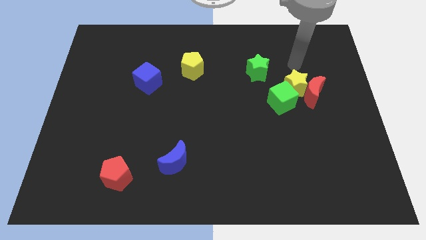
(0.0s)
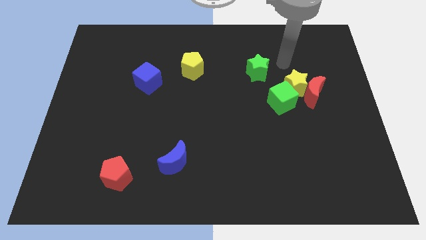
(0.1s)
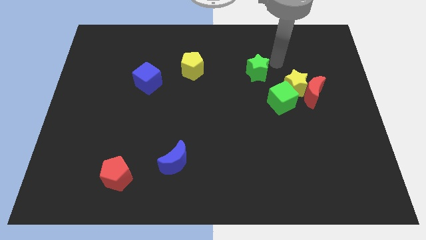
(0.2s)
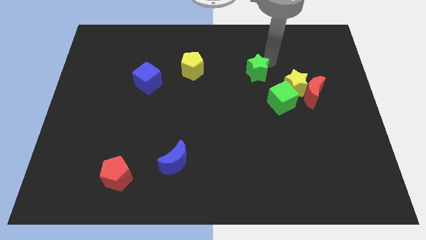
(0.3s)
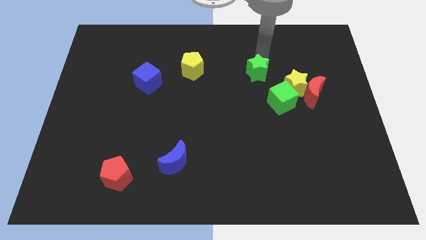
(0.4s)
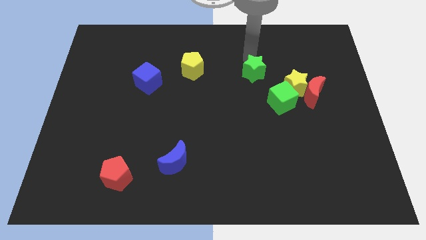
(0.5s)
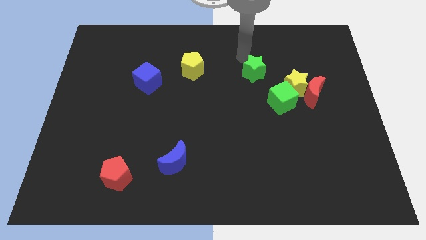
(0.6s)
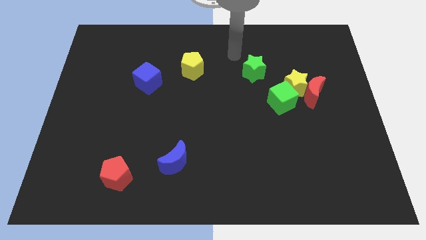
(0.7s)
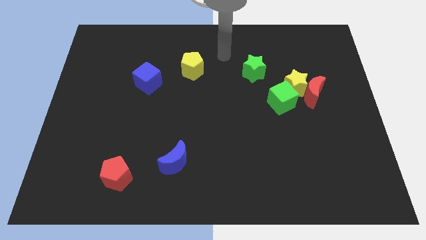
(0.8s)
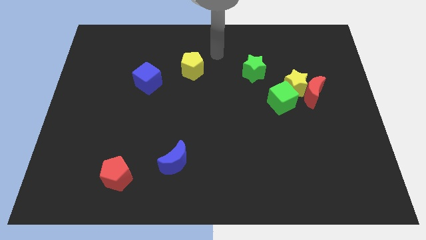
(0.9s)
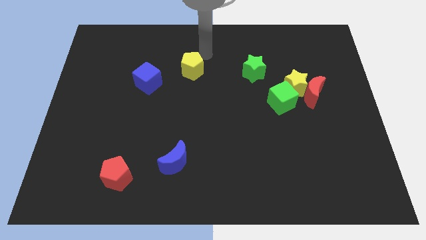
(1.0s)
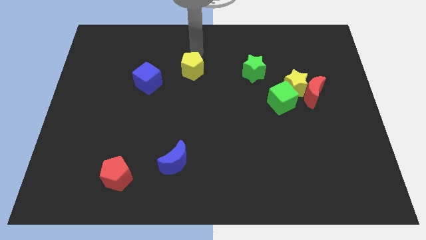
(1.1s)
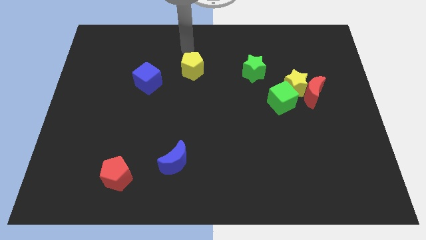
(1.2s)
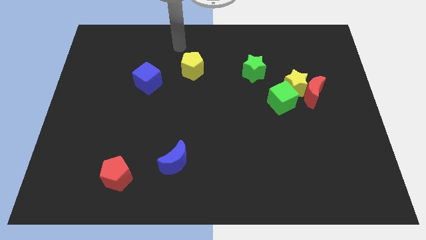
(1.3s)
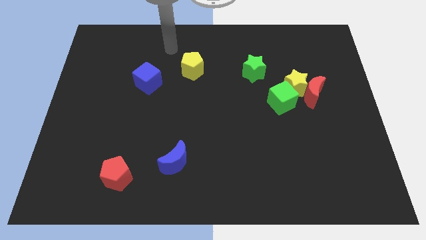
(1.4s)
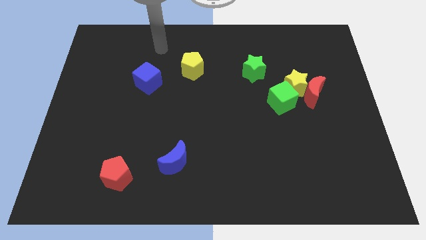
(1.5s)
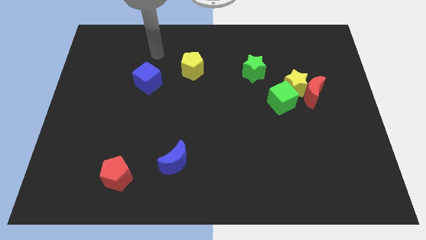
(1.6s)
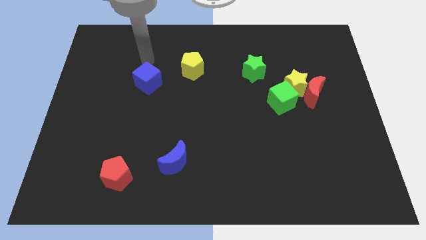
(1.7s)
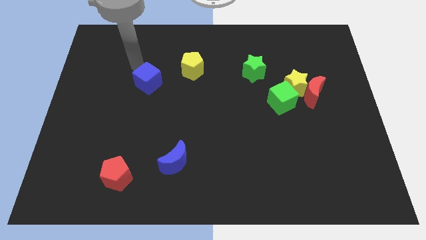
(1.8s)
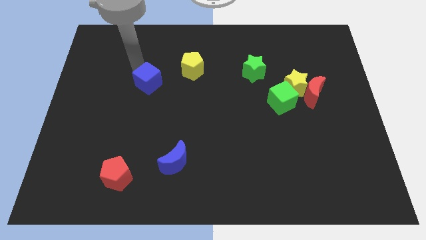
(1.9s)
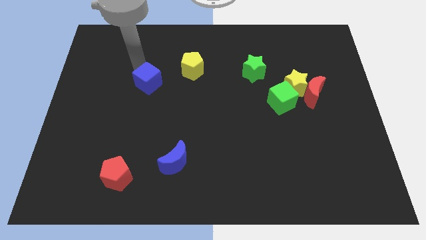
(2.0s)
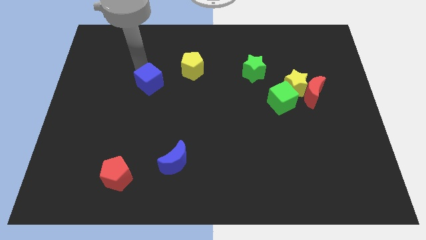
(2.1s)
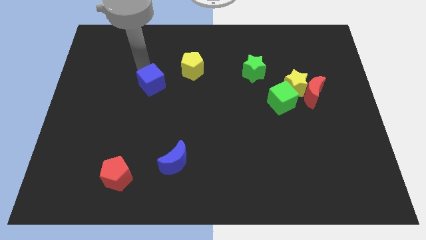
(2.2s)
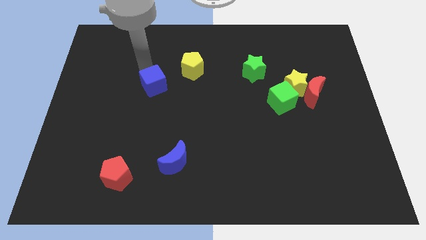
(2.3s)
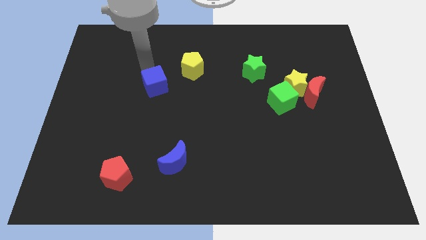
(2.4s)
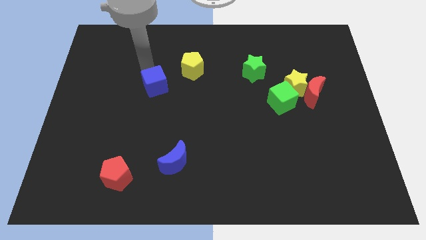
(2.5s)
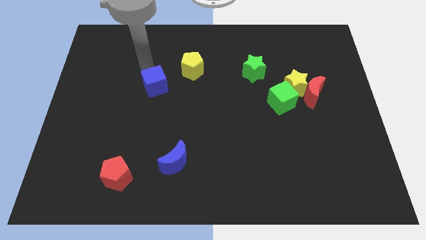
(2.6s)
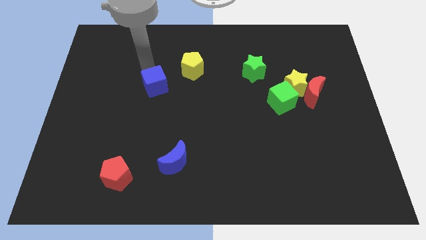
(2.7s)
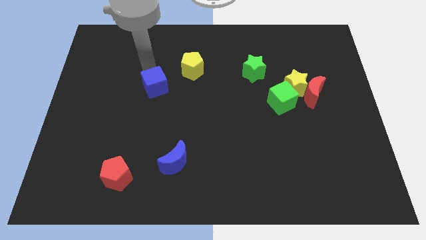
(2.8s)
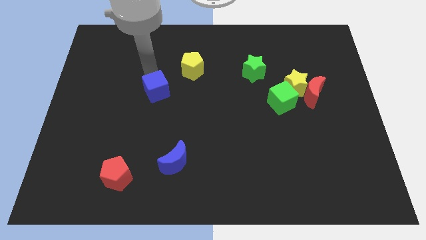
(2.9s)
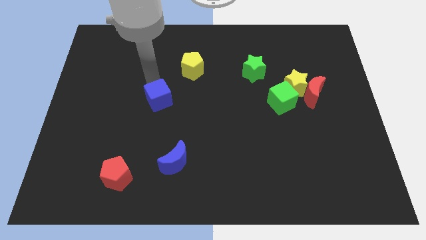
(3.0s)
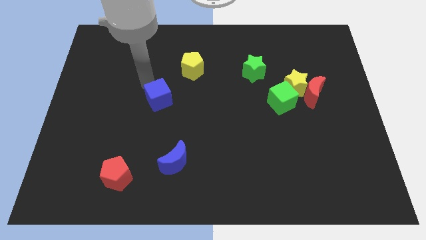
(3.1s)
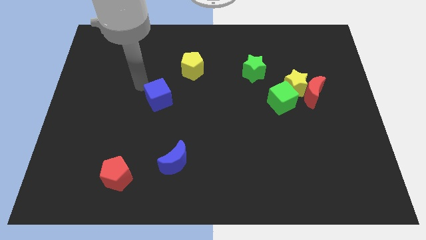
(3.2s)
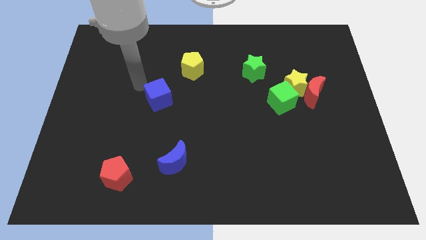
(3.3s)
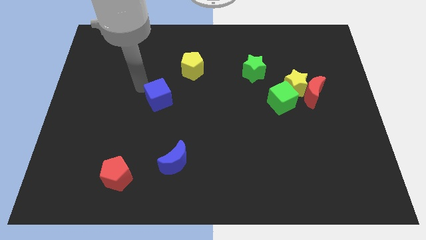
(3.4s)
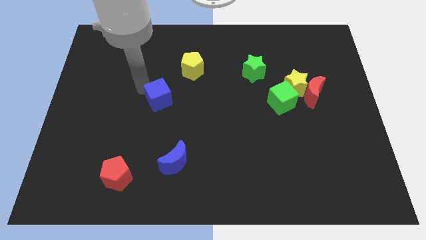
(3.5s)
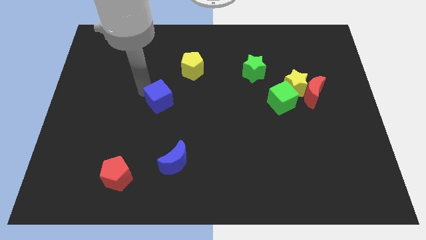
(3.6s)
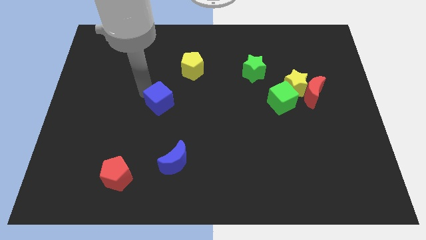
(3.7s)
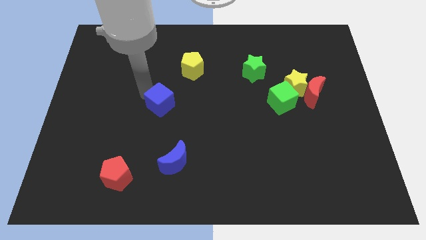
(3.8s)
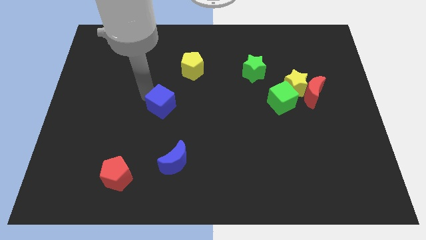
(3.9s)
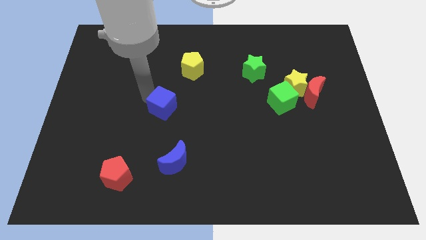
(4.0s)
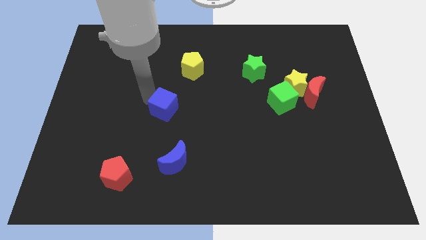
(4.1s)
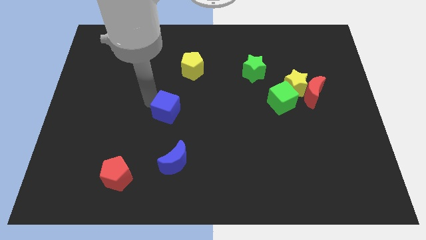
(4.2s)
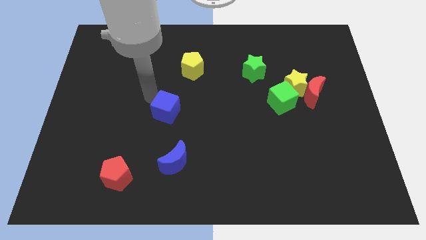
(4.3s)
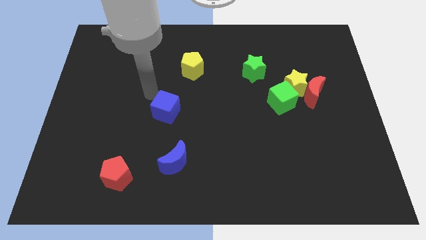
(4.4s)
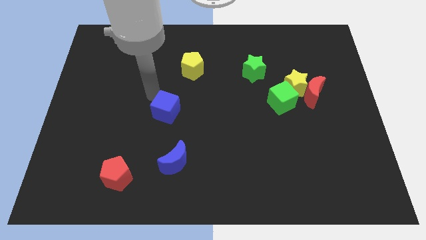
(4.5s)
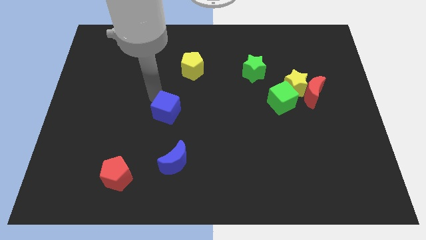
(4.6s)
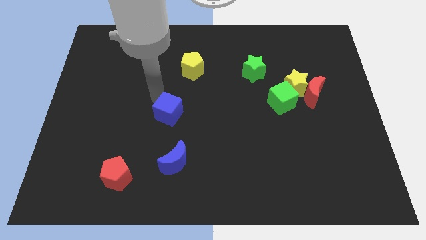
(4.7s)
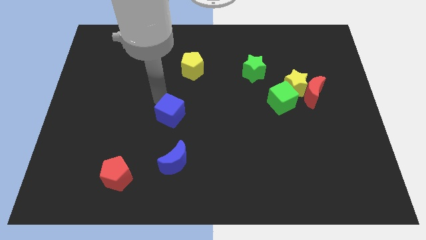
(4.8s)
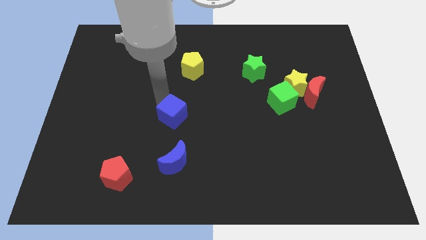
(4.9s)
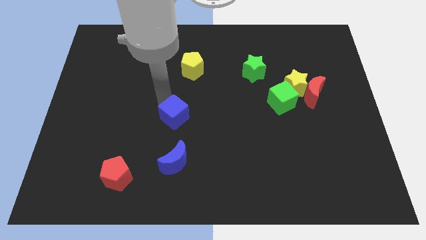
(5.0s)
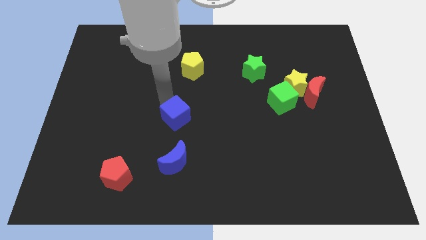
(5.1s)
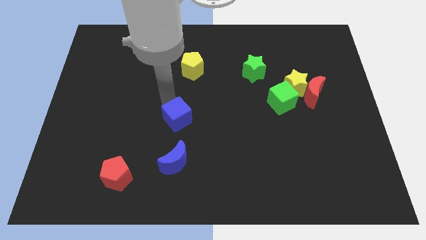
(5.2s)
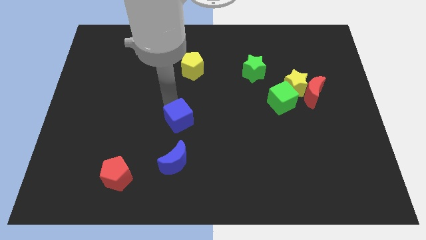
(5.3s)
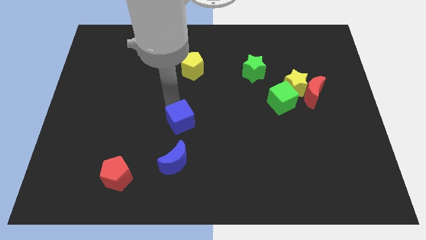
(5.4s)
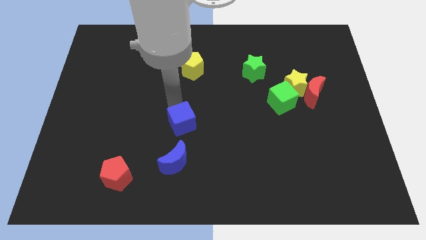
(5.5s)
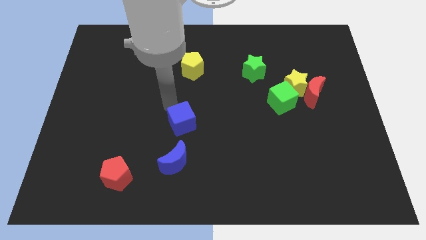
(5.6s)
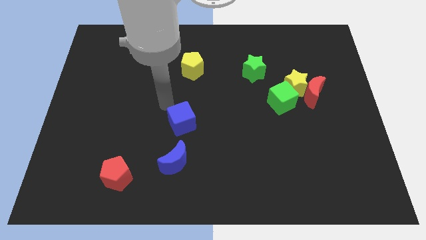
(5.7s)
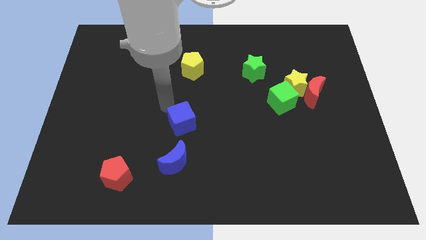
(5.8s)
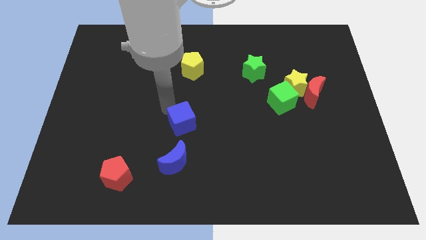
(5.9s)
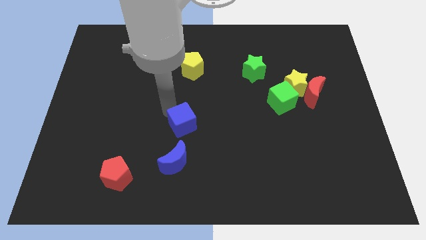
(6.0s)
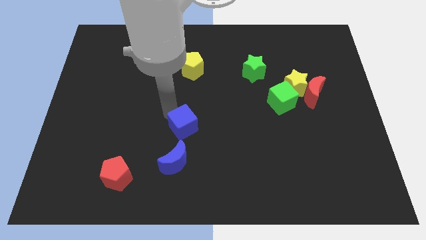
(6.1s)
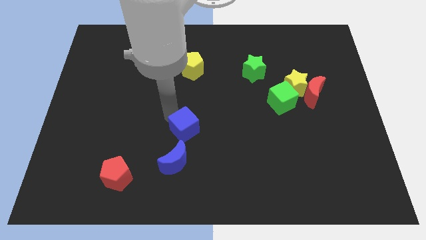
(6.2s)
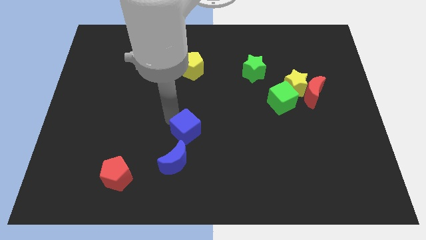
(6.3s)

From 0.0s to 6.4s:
move the blue cube to the top right side of the blue moon

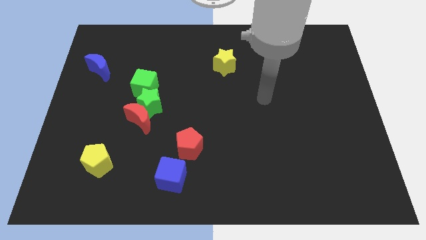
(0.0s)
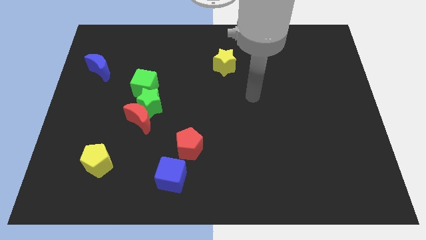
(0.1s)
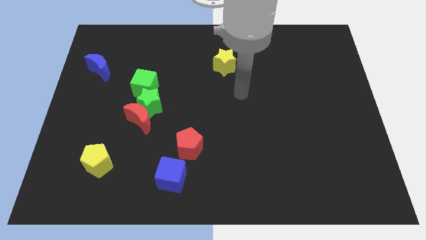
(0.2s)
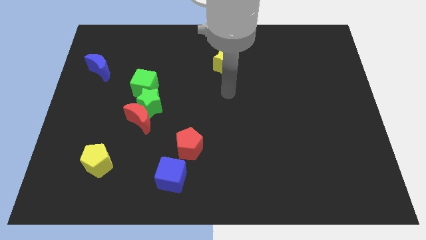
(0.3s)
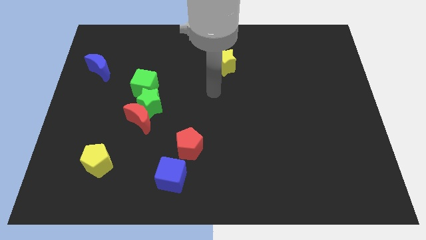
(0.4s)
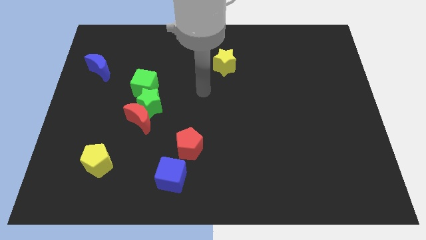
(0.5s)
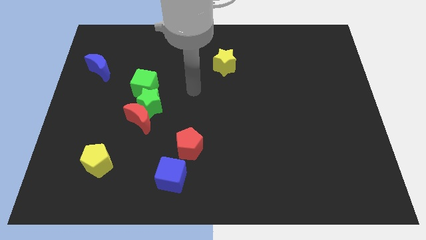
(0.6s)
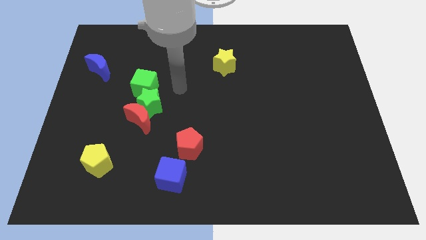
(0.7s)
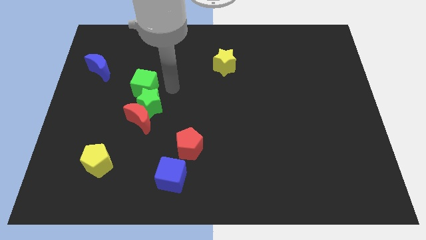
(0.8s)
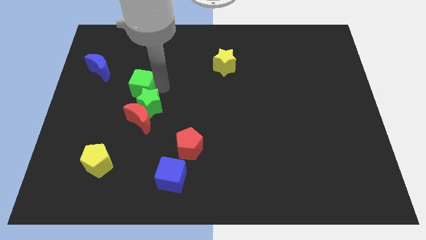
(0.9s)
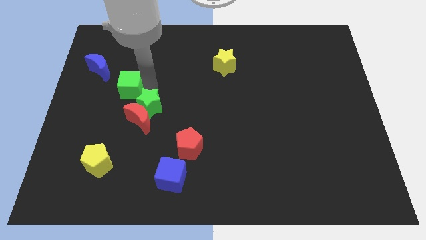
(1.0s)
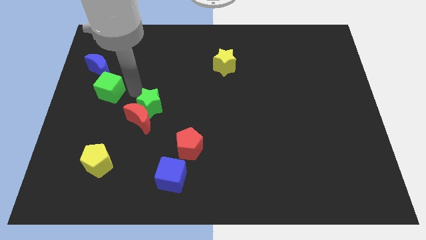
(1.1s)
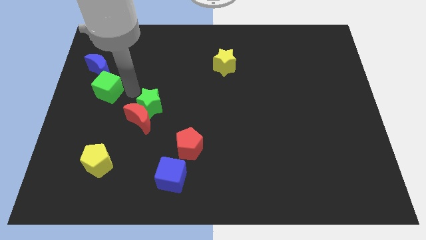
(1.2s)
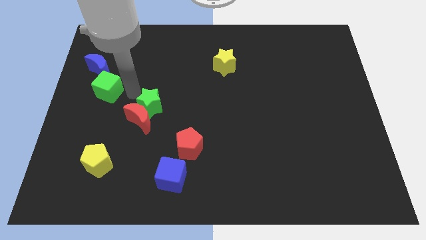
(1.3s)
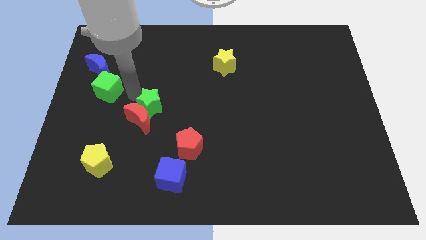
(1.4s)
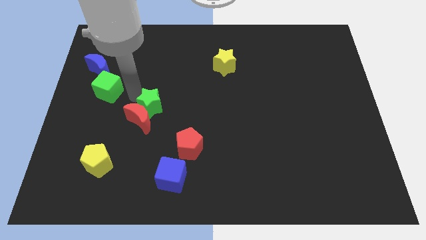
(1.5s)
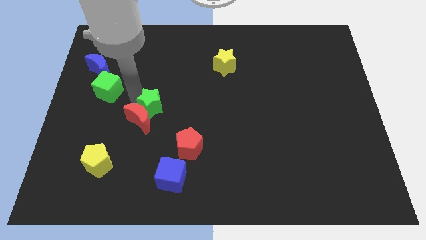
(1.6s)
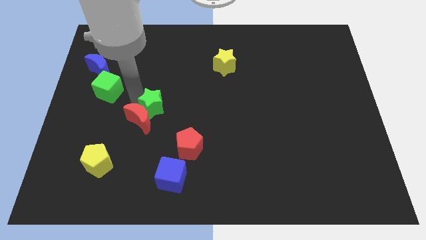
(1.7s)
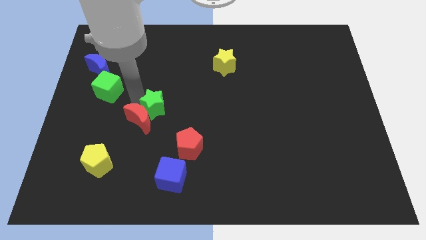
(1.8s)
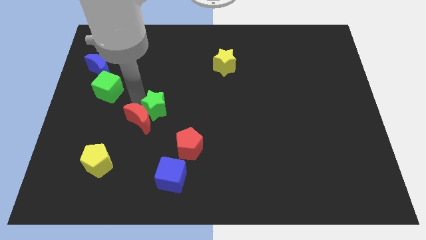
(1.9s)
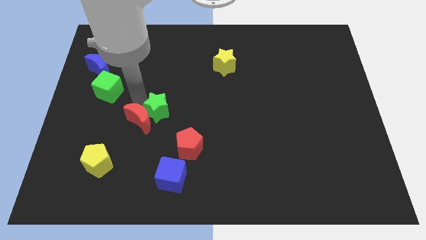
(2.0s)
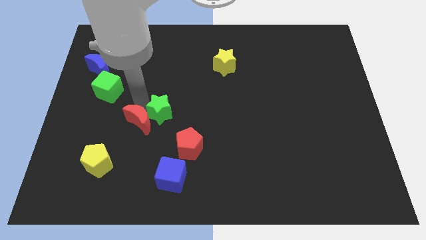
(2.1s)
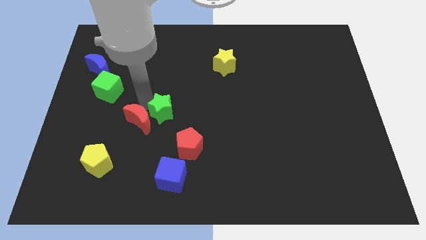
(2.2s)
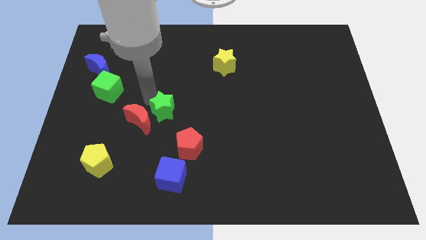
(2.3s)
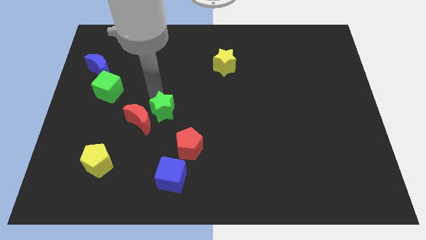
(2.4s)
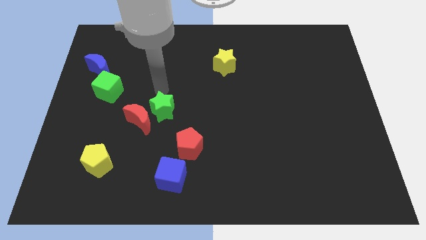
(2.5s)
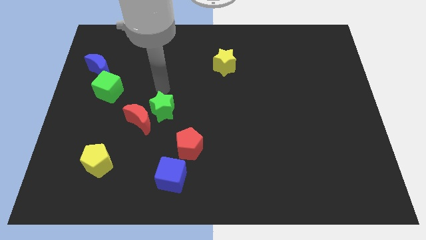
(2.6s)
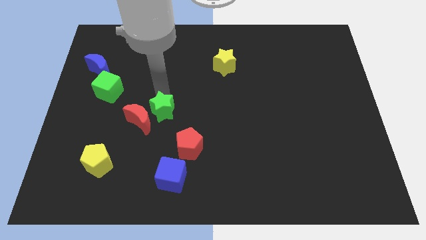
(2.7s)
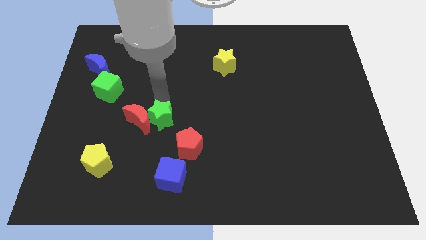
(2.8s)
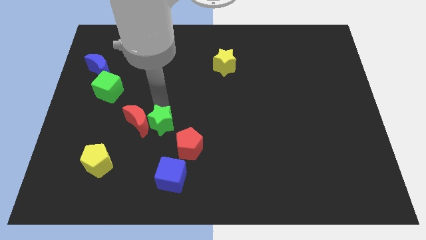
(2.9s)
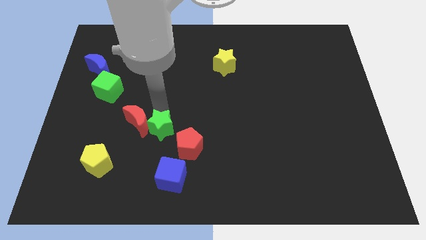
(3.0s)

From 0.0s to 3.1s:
push the green star left of the red pentagon
